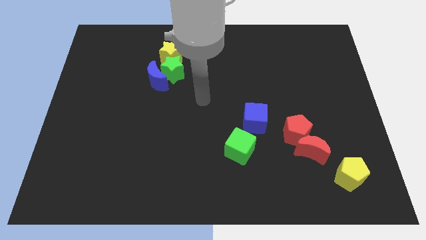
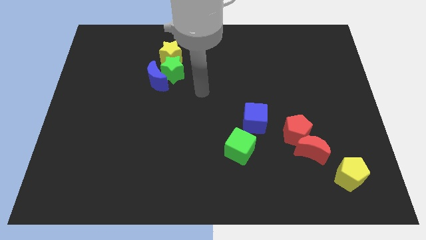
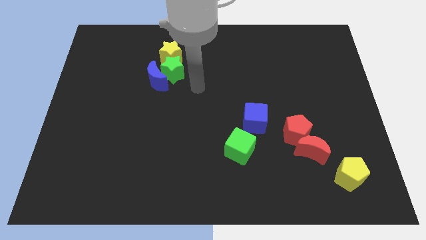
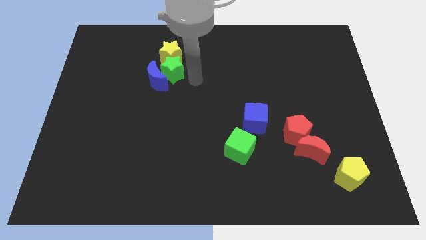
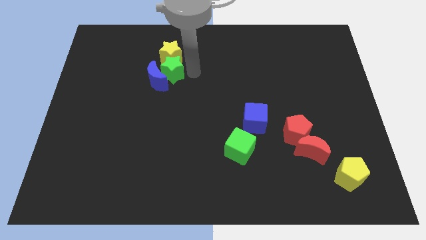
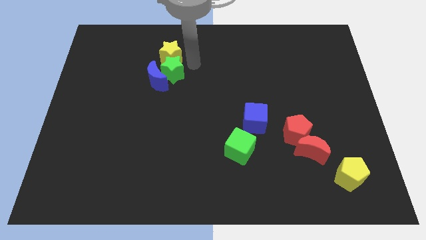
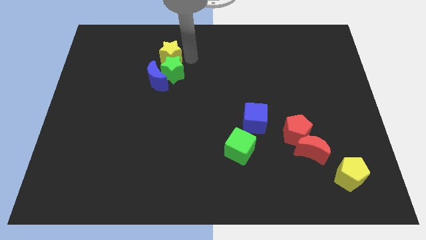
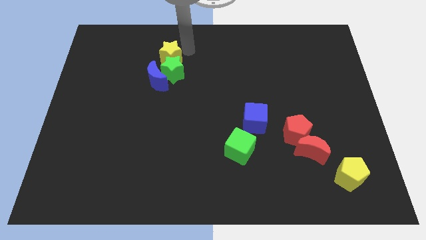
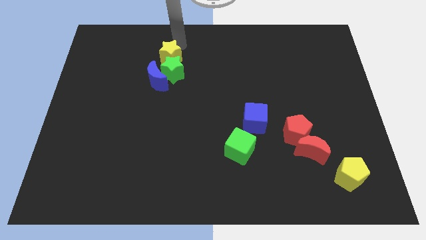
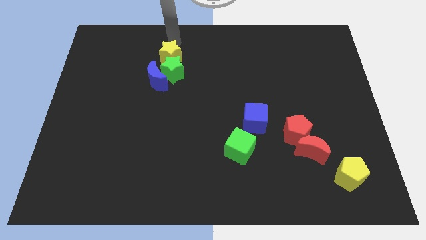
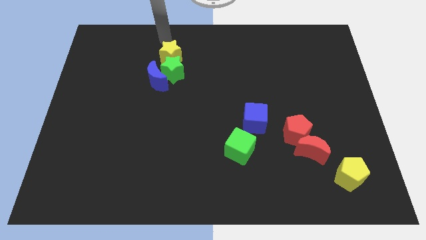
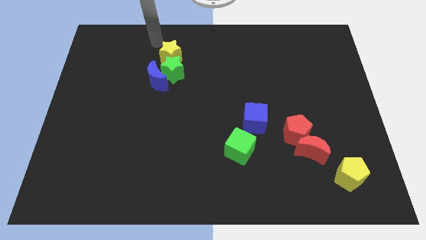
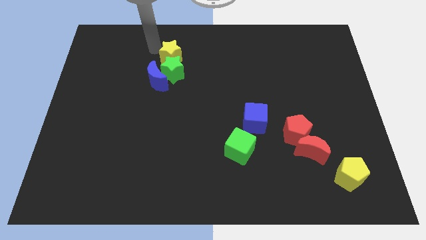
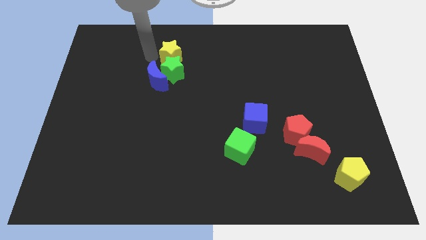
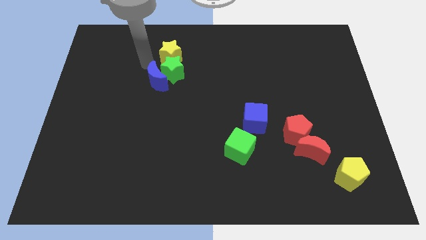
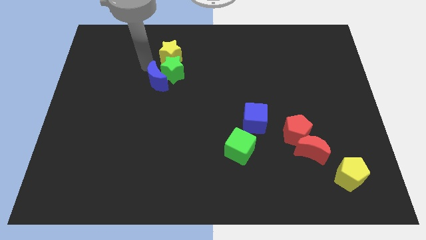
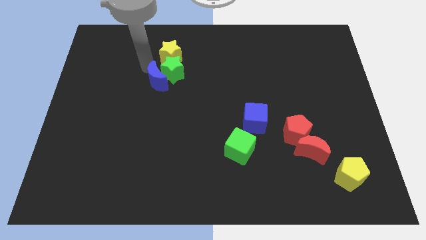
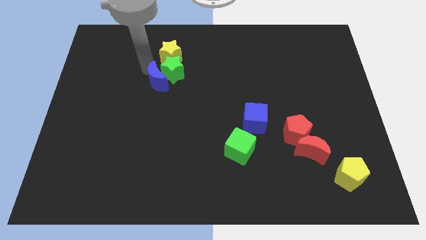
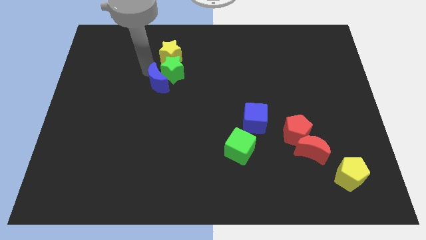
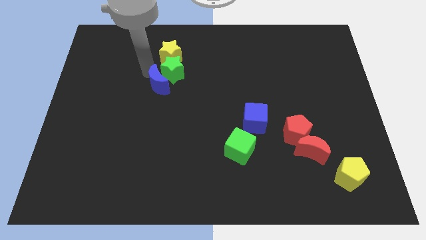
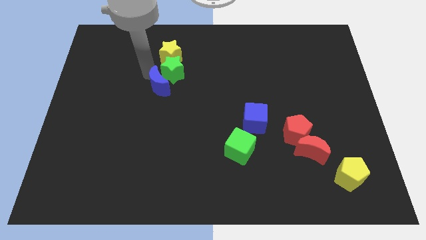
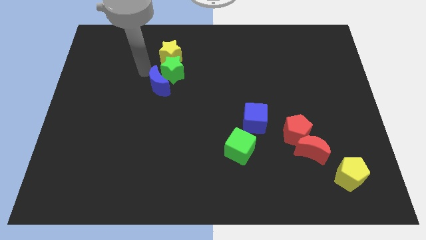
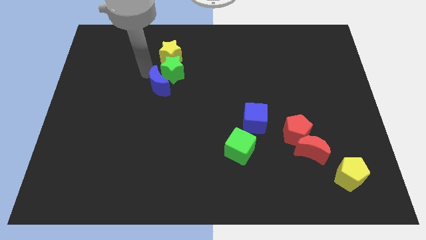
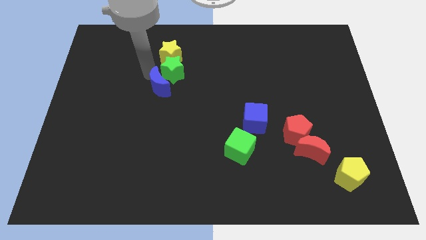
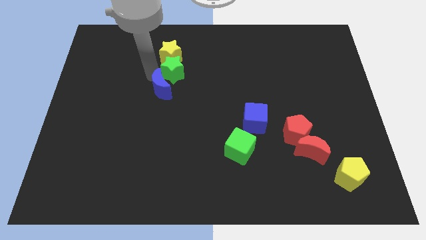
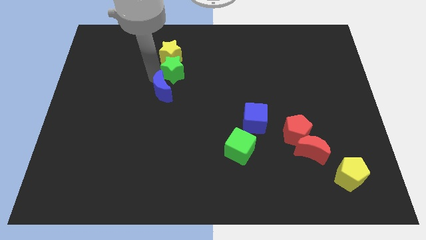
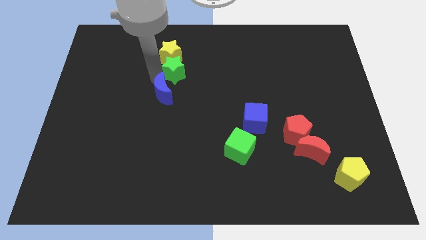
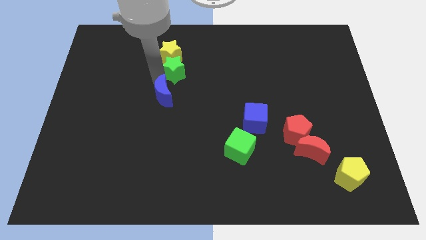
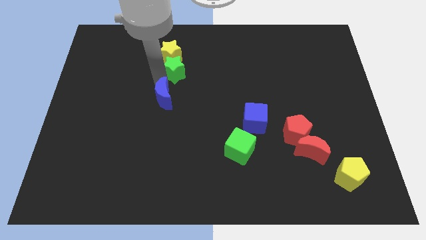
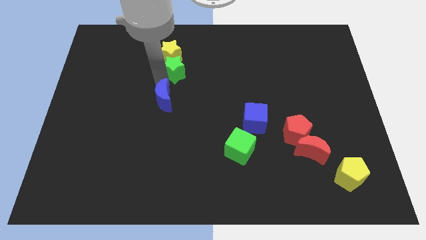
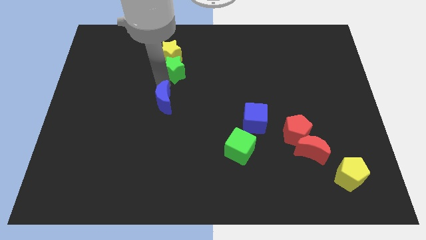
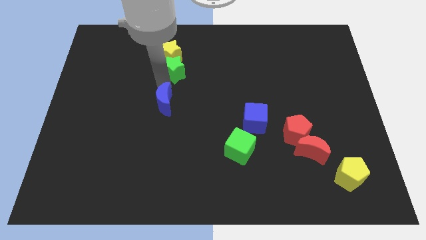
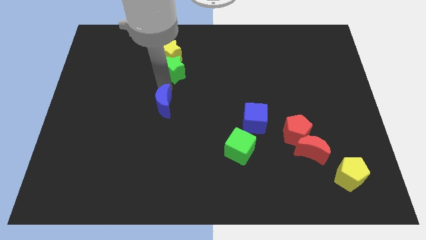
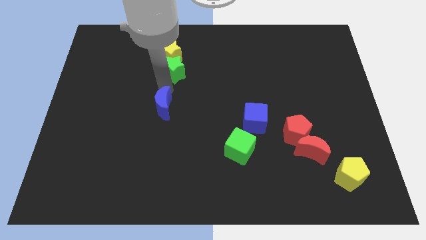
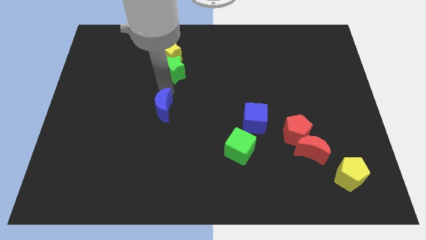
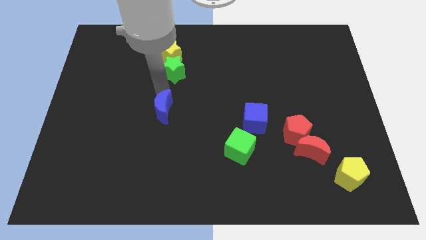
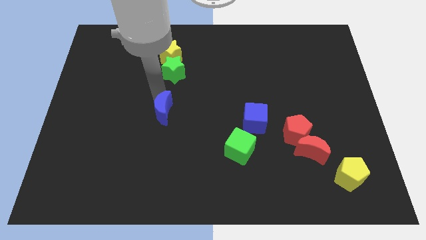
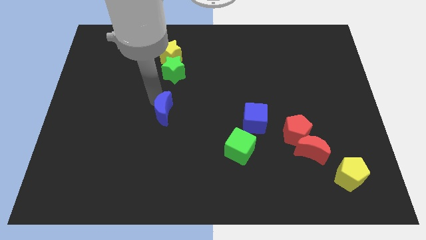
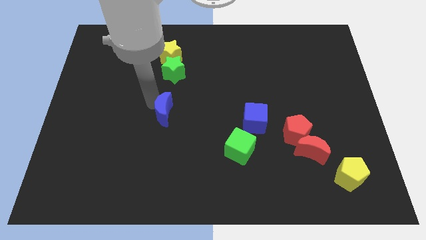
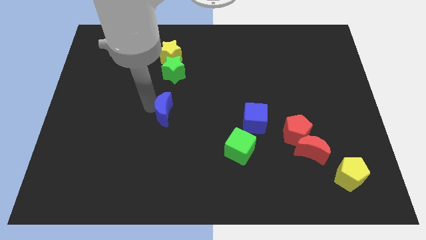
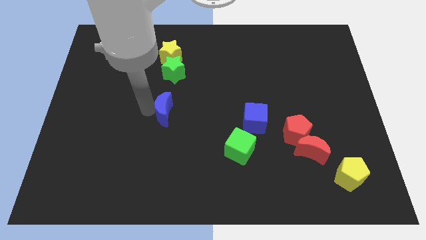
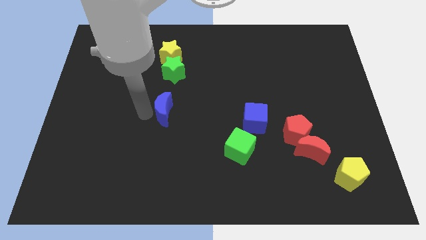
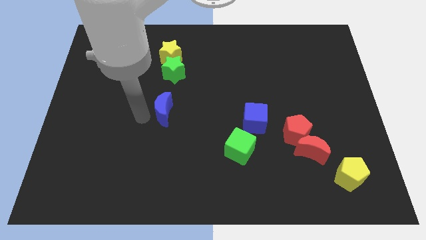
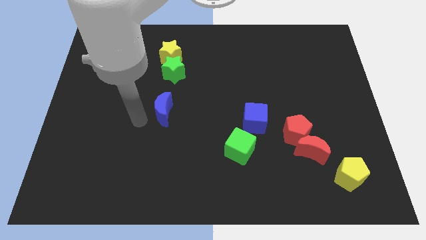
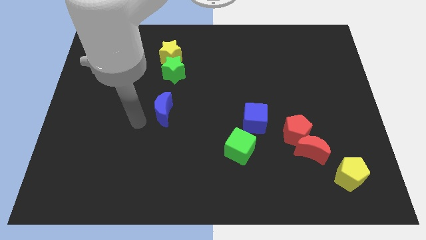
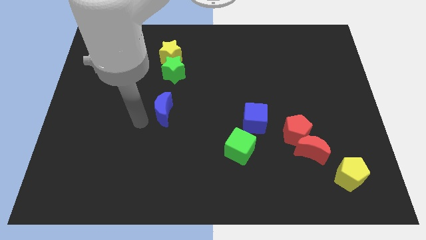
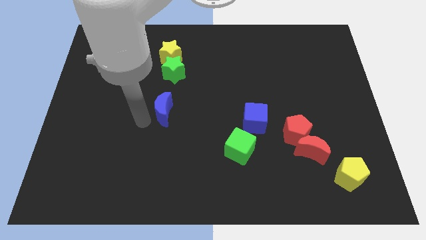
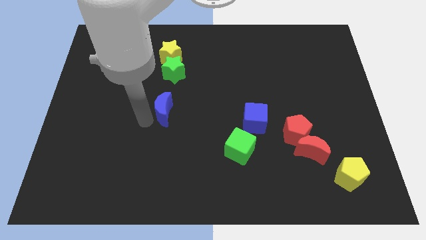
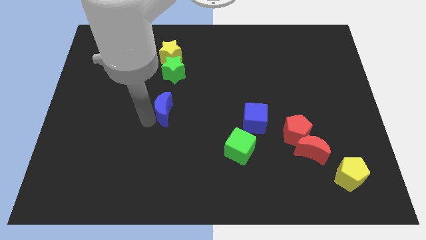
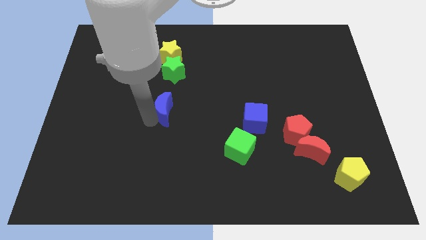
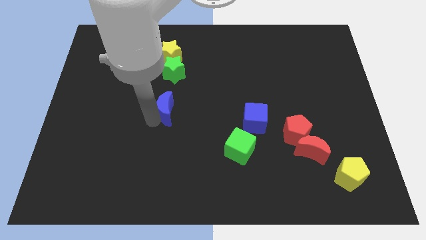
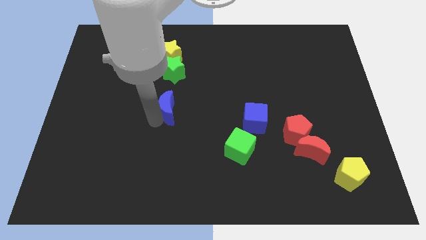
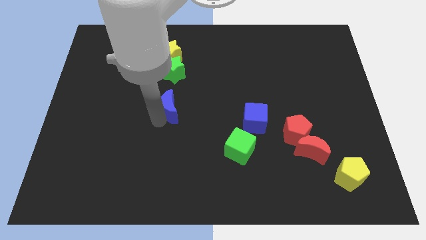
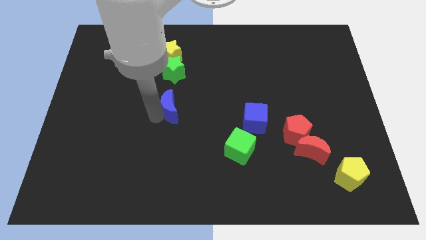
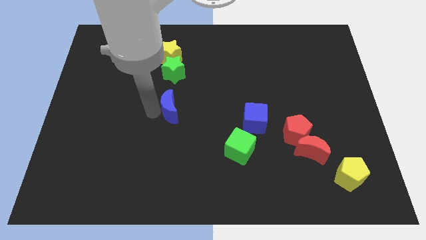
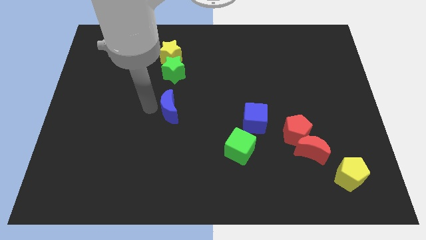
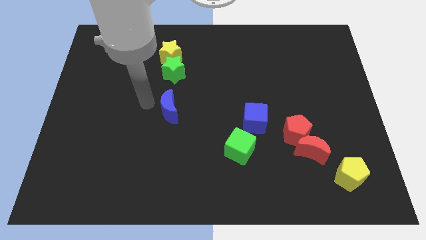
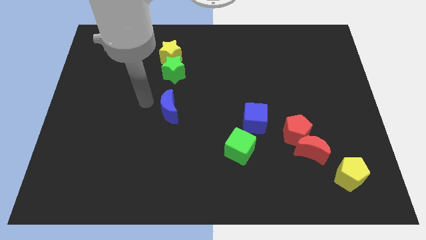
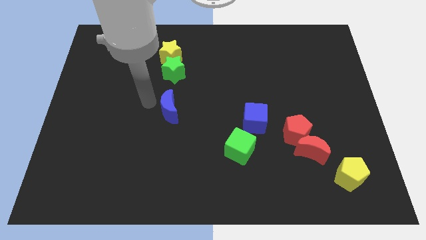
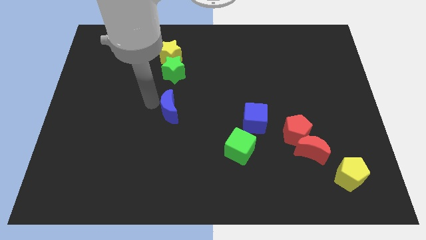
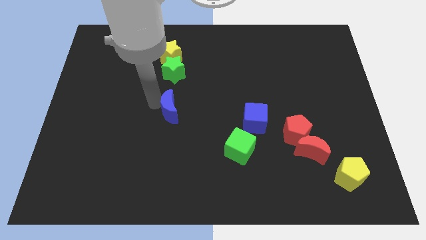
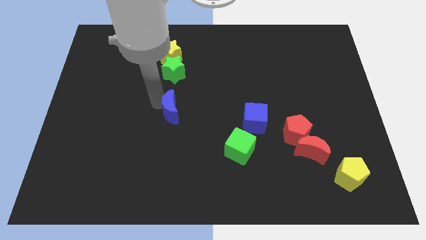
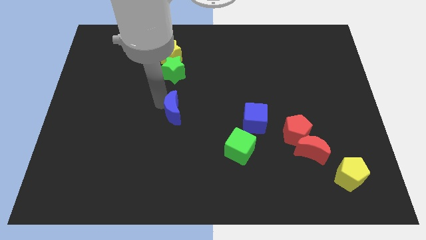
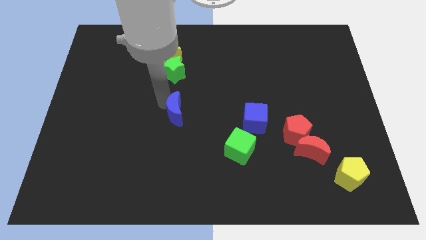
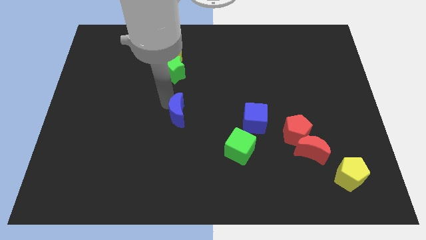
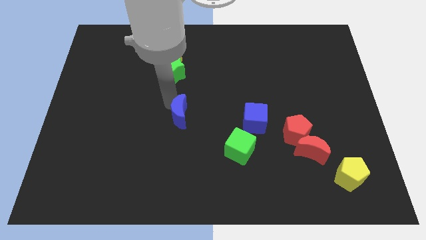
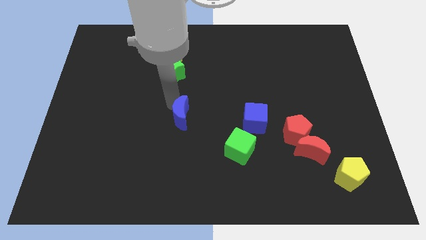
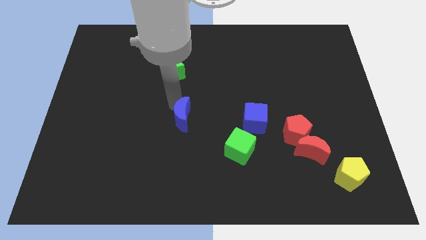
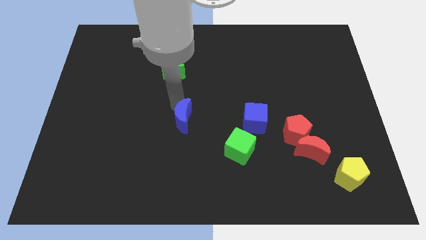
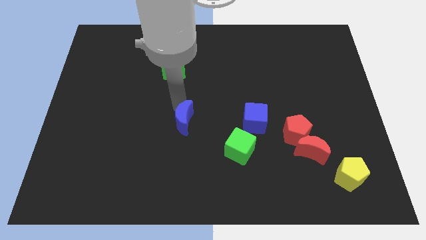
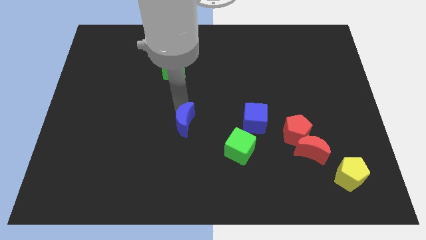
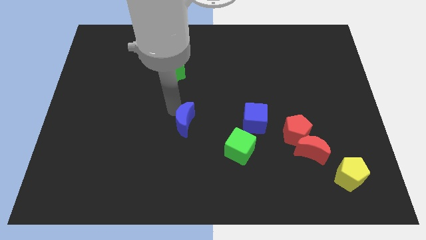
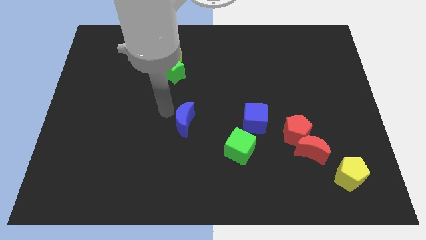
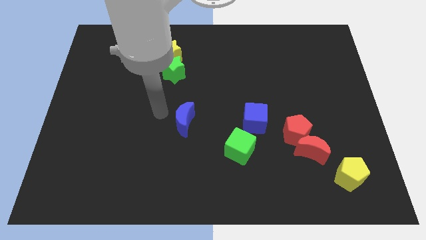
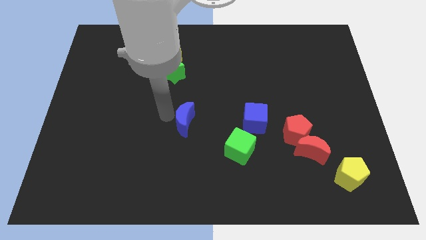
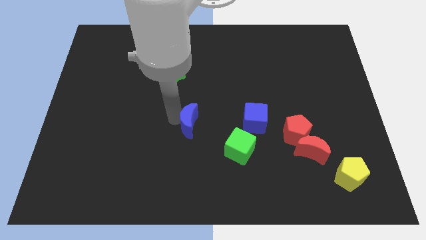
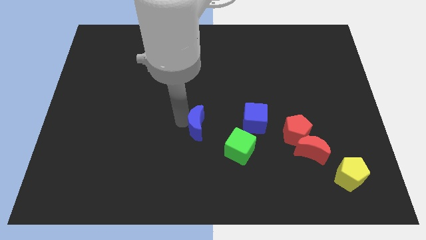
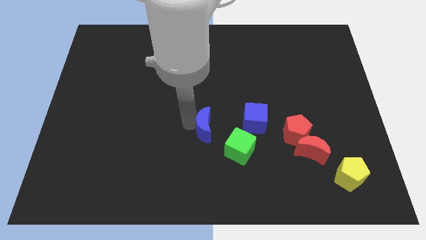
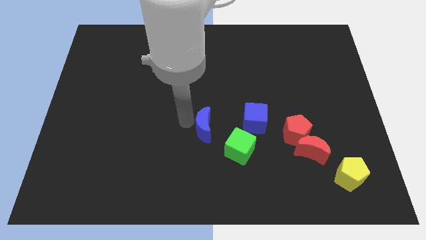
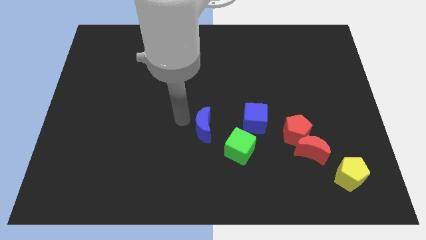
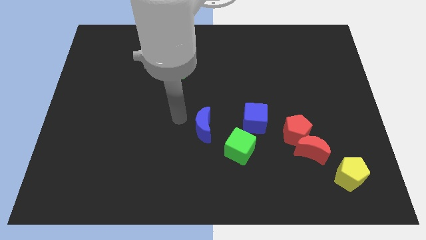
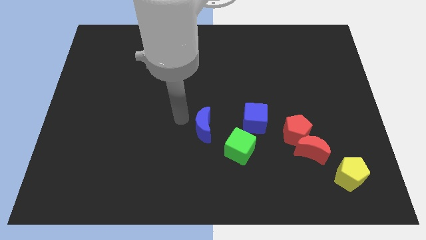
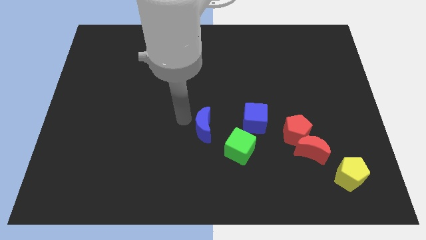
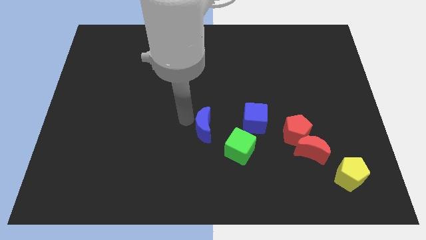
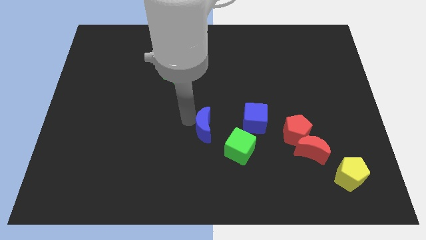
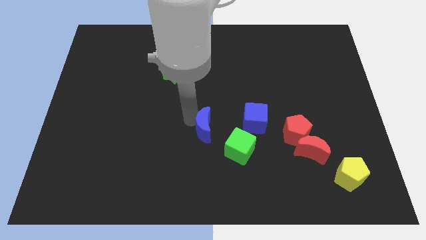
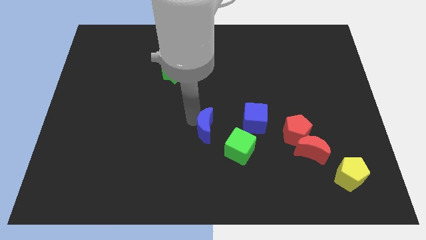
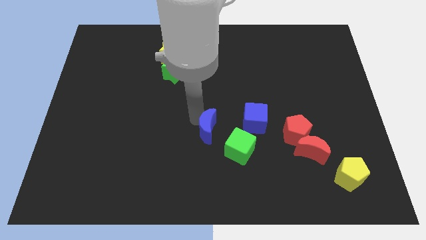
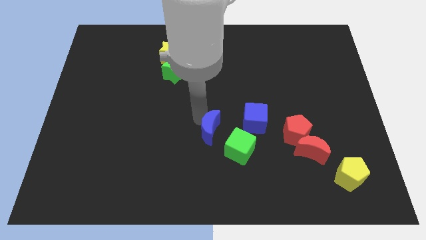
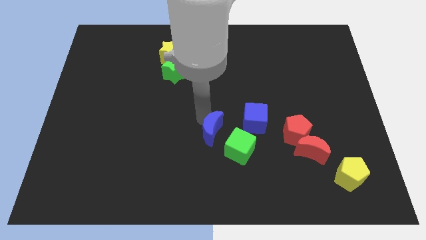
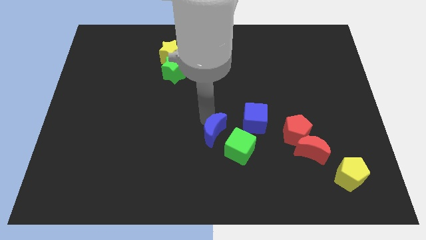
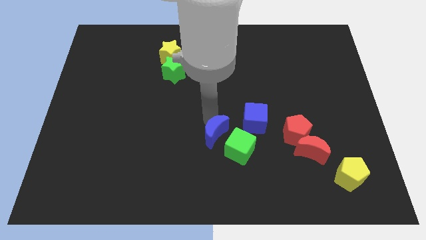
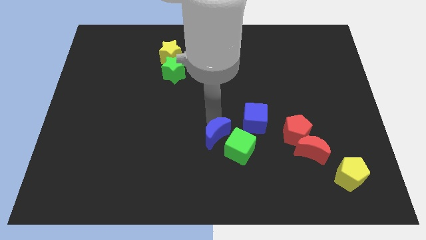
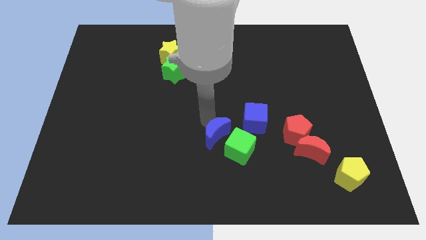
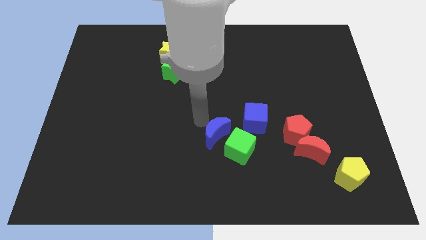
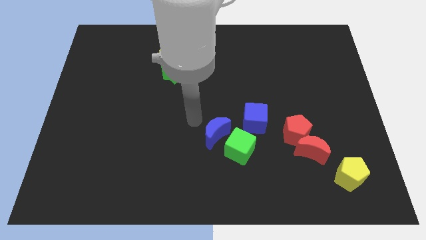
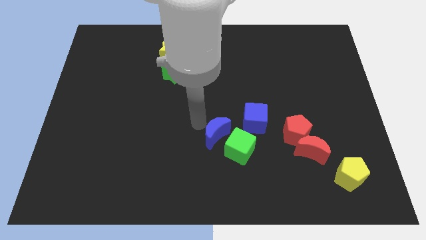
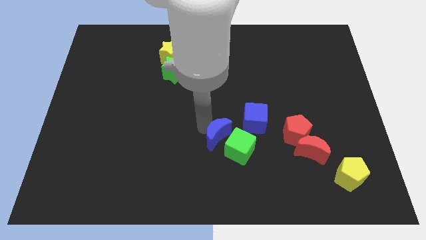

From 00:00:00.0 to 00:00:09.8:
slide the blue moon close to the green cube
